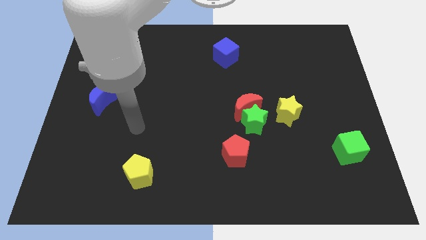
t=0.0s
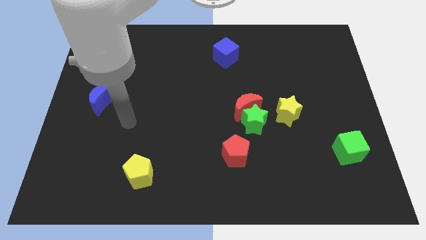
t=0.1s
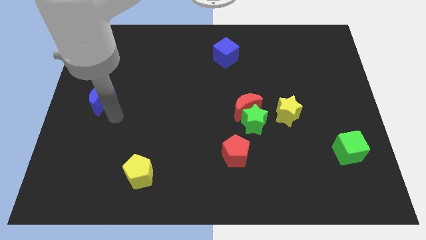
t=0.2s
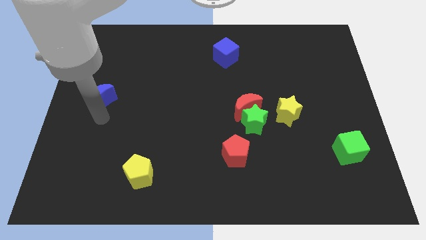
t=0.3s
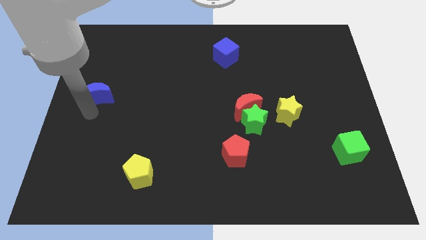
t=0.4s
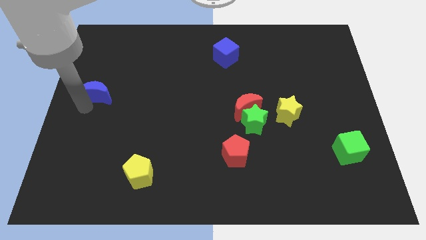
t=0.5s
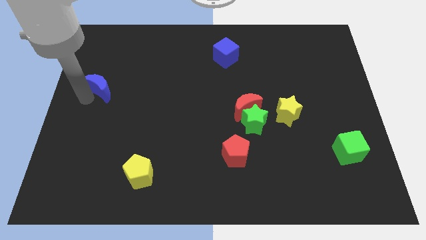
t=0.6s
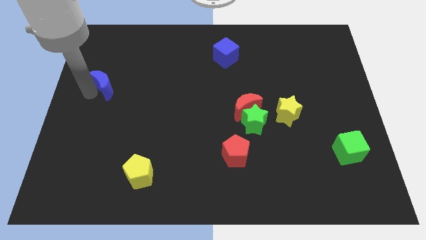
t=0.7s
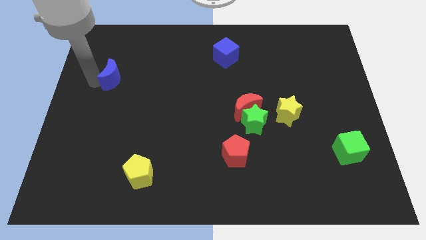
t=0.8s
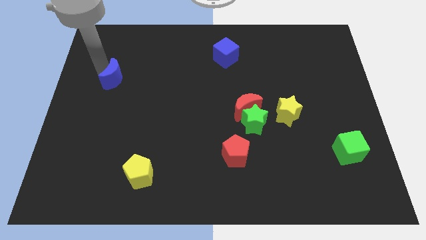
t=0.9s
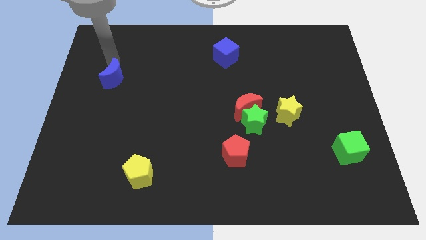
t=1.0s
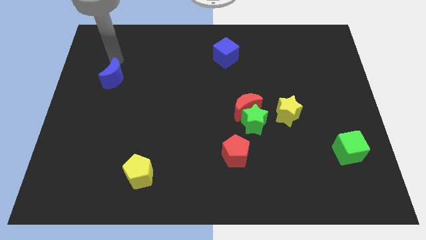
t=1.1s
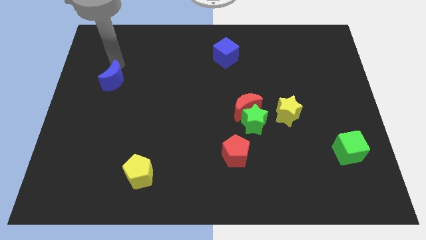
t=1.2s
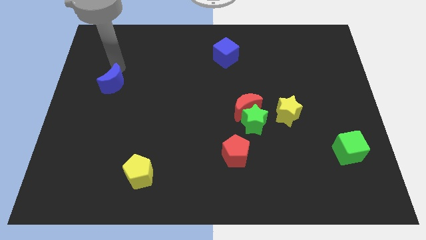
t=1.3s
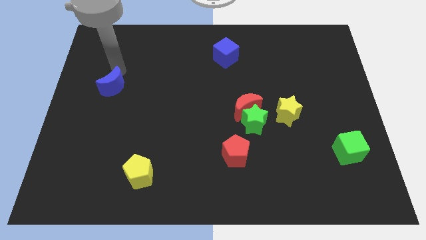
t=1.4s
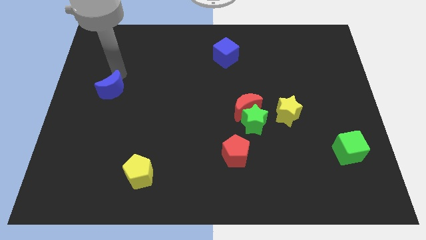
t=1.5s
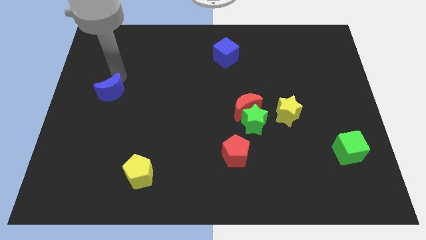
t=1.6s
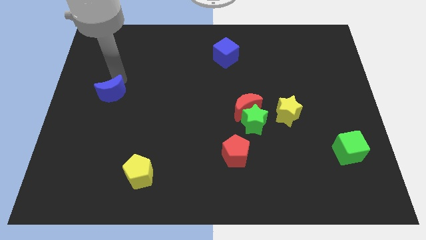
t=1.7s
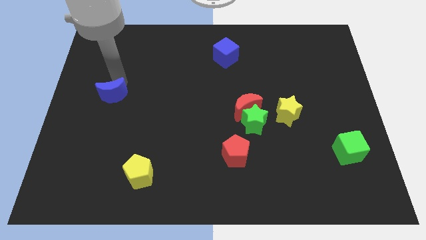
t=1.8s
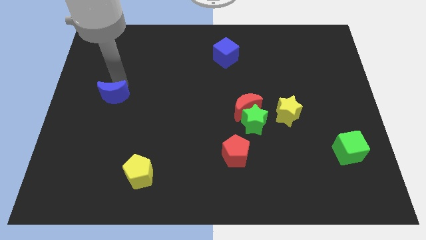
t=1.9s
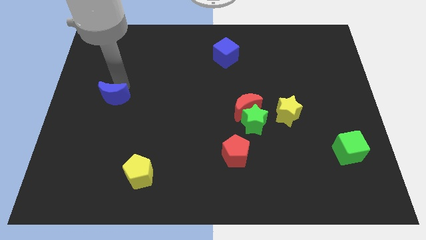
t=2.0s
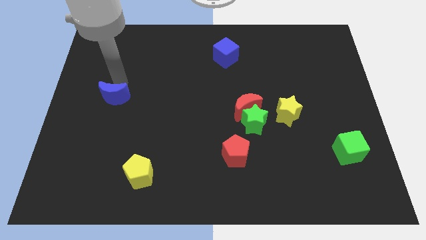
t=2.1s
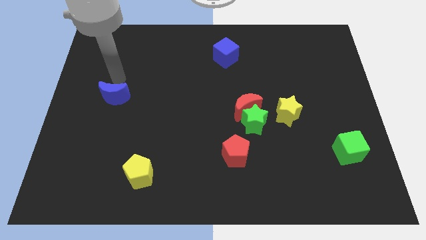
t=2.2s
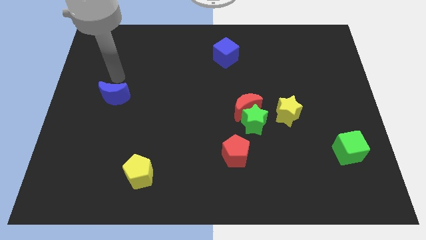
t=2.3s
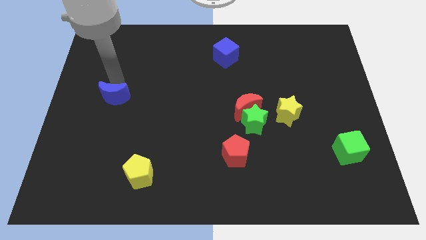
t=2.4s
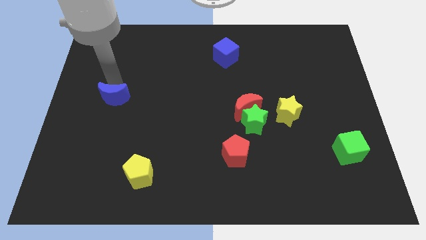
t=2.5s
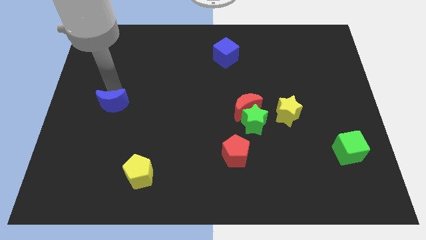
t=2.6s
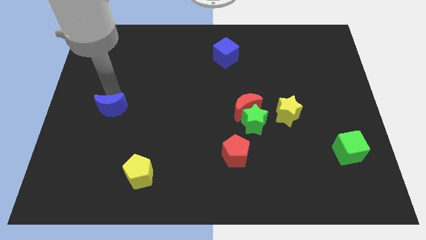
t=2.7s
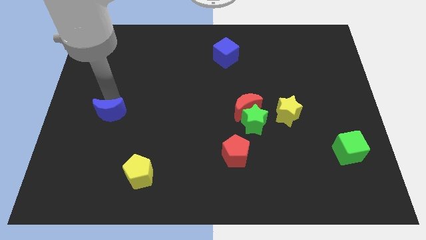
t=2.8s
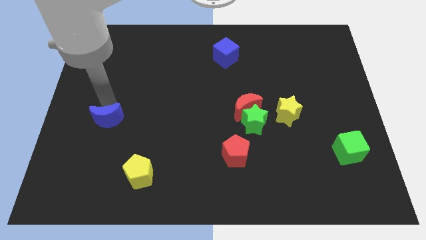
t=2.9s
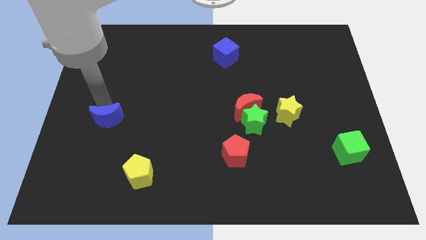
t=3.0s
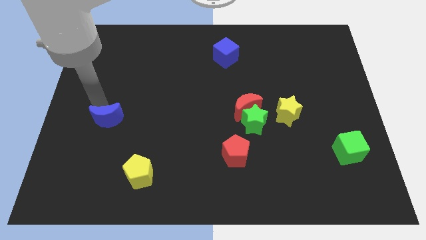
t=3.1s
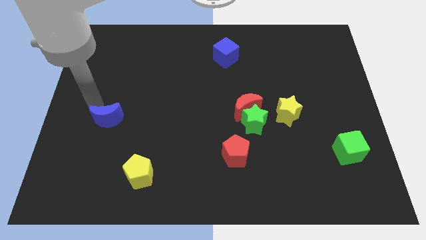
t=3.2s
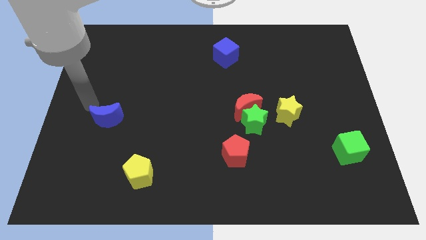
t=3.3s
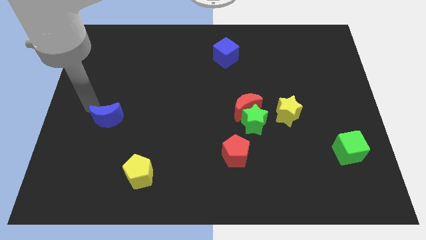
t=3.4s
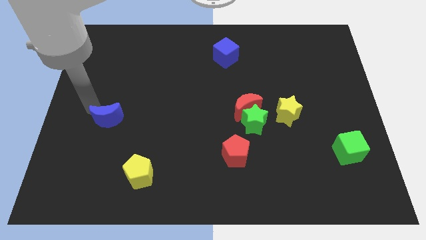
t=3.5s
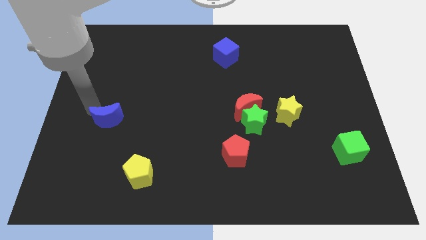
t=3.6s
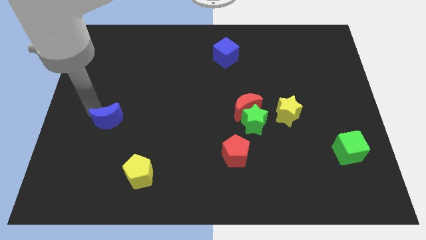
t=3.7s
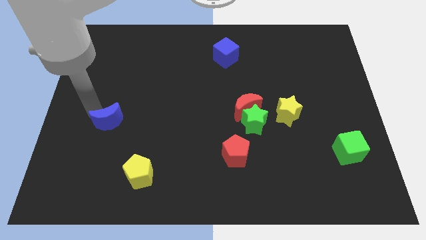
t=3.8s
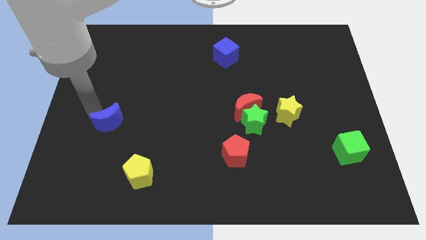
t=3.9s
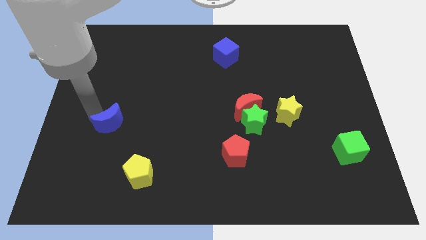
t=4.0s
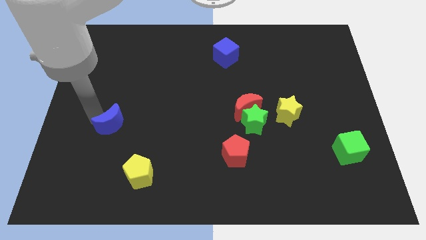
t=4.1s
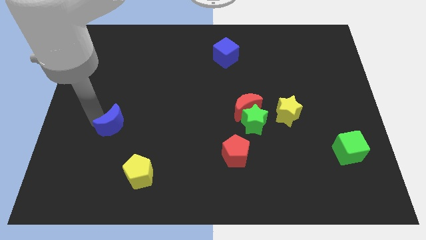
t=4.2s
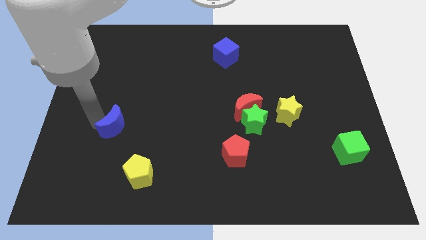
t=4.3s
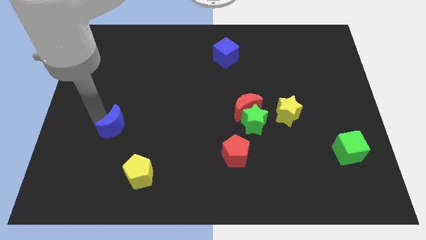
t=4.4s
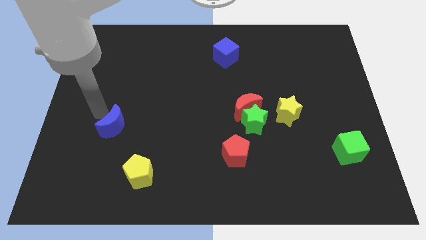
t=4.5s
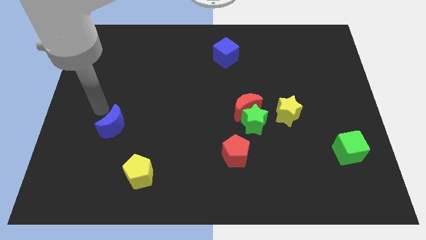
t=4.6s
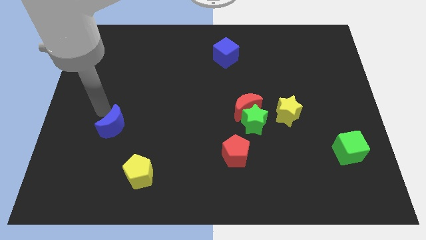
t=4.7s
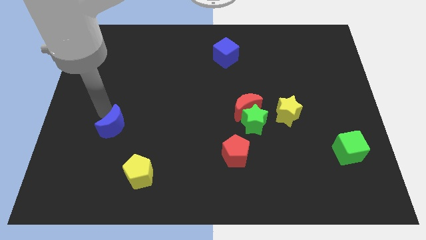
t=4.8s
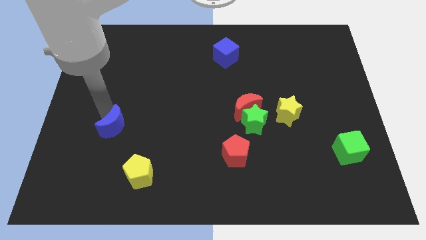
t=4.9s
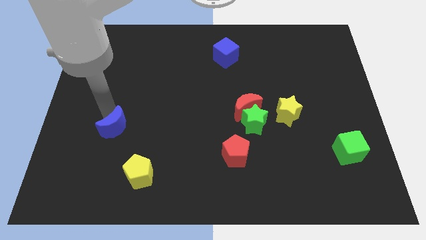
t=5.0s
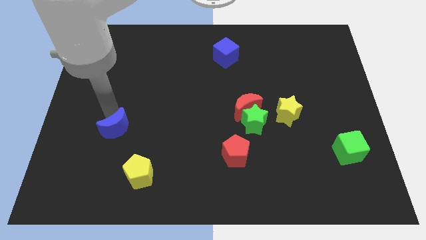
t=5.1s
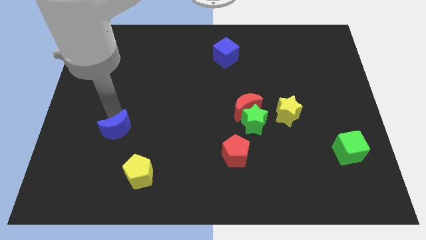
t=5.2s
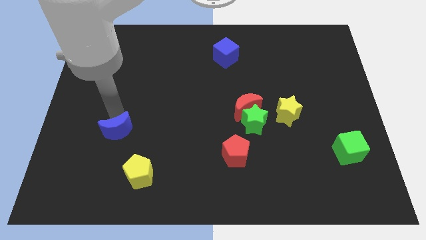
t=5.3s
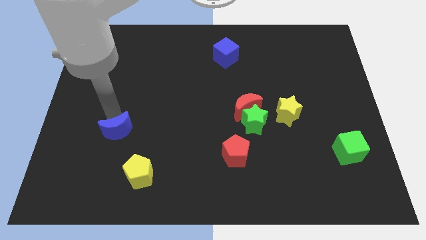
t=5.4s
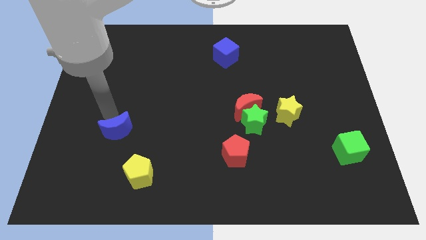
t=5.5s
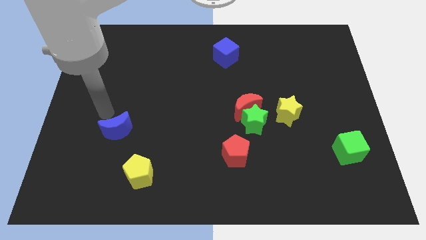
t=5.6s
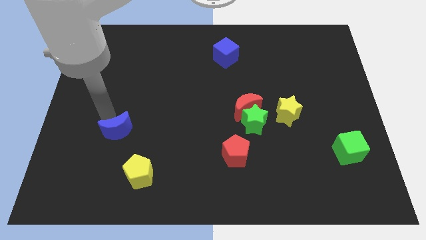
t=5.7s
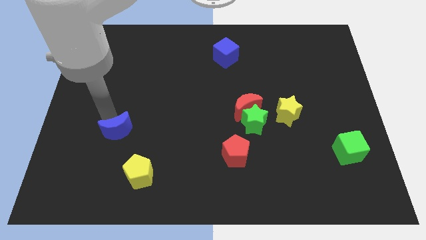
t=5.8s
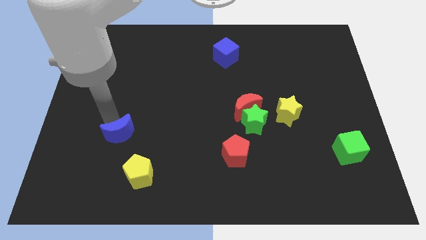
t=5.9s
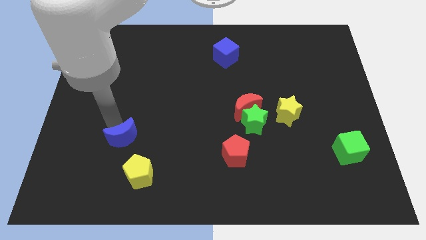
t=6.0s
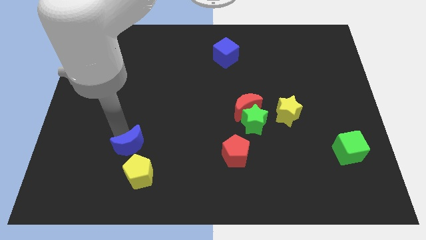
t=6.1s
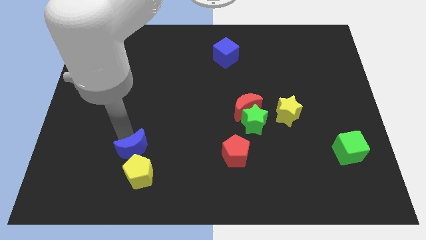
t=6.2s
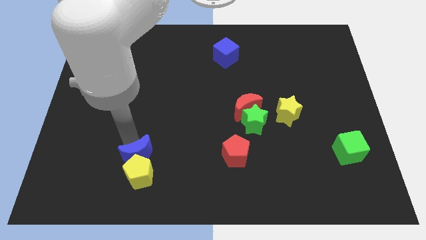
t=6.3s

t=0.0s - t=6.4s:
put the blue moon close to the yellow pentagon

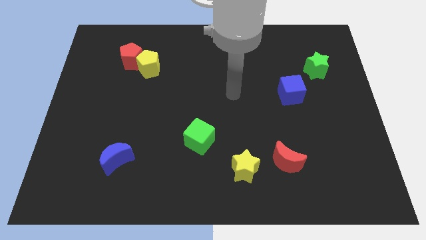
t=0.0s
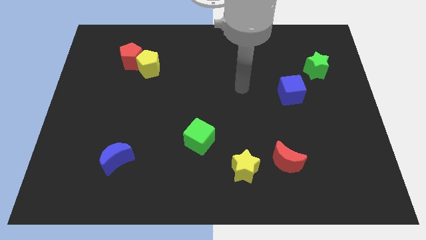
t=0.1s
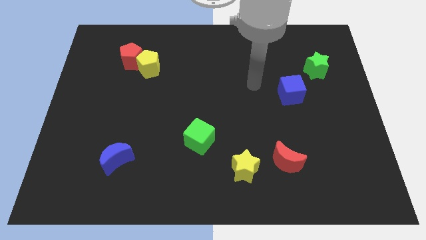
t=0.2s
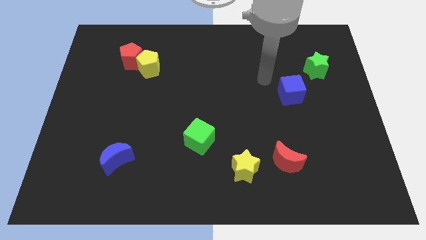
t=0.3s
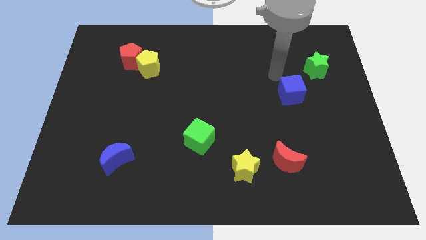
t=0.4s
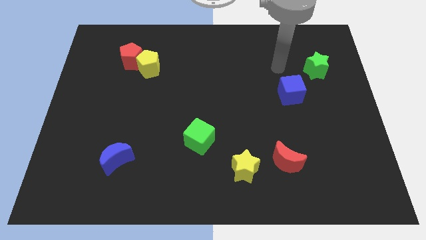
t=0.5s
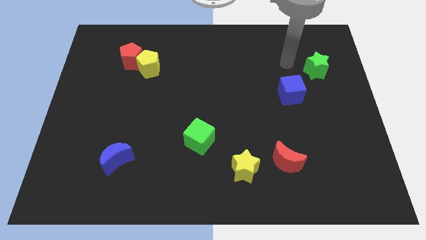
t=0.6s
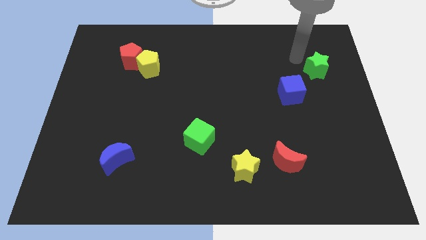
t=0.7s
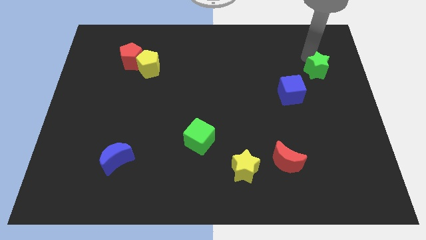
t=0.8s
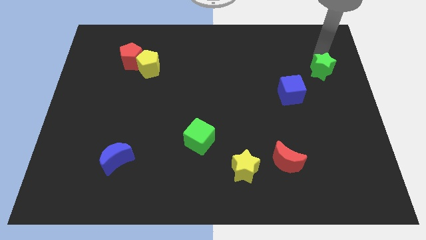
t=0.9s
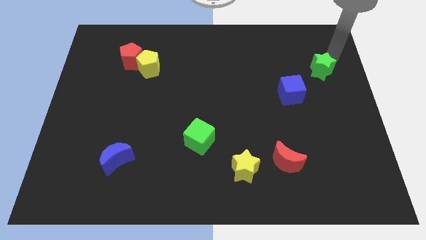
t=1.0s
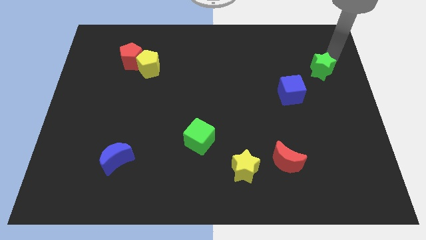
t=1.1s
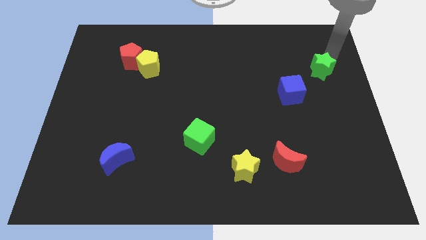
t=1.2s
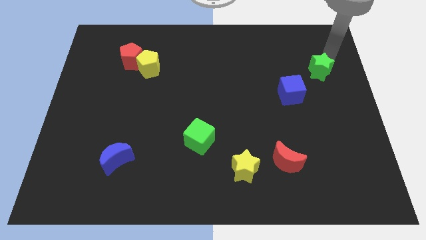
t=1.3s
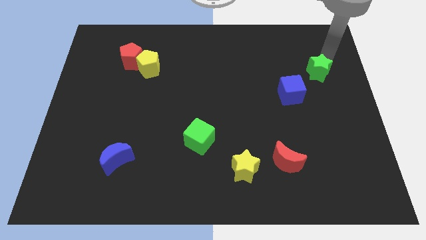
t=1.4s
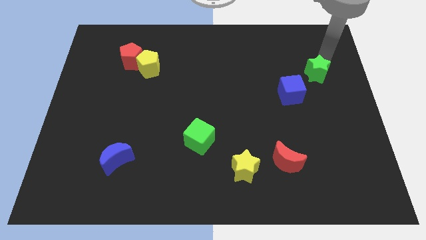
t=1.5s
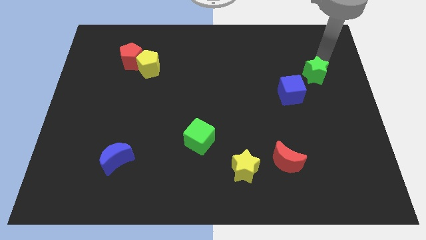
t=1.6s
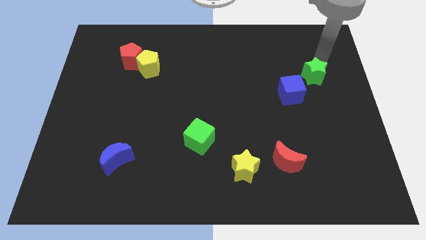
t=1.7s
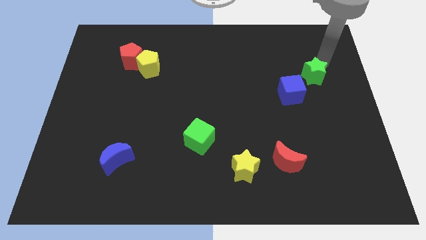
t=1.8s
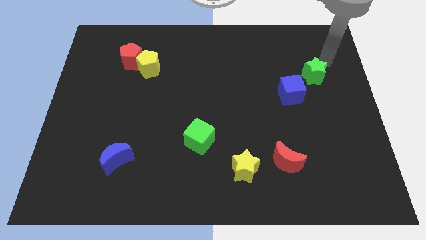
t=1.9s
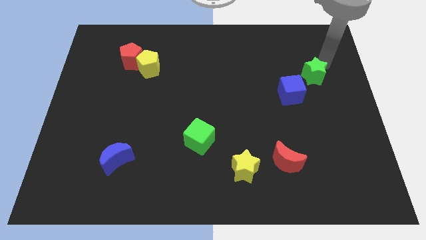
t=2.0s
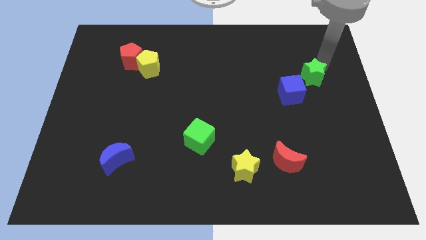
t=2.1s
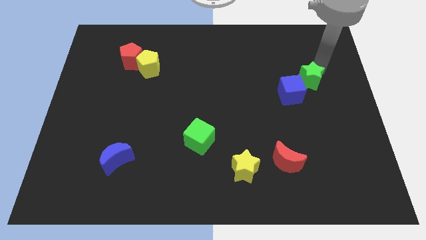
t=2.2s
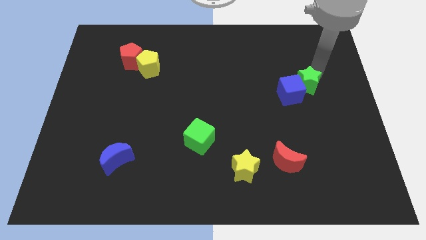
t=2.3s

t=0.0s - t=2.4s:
put the green star next to the blue cube
